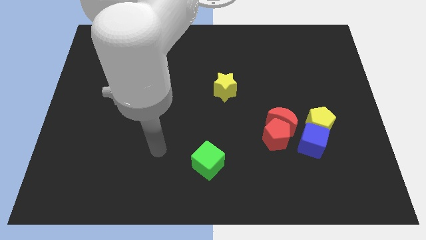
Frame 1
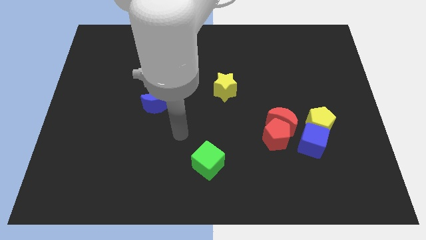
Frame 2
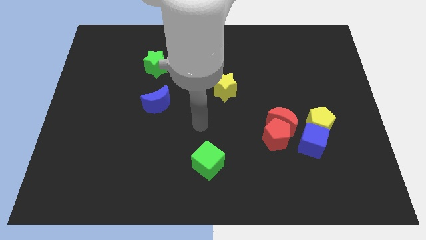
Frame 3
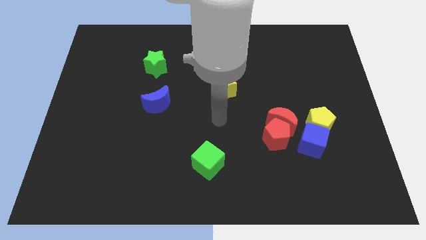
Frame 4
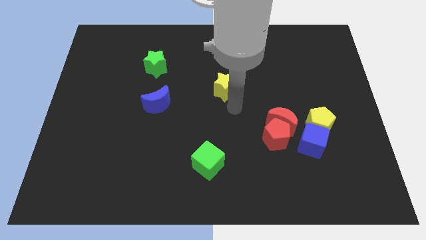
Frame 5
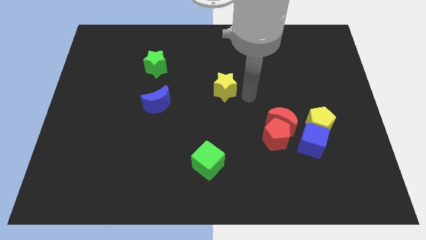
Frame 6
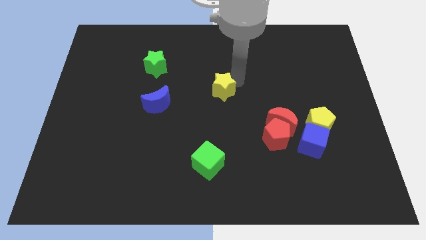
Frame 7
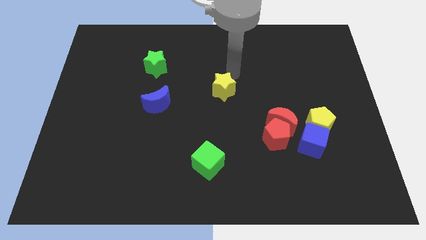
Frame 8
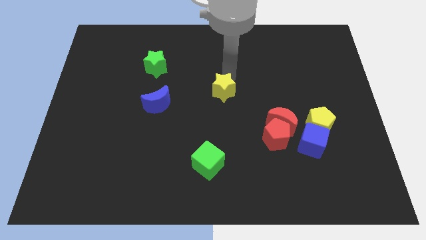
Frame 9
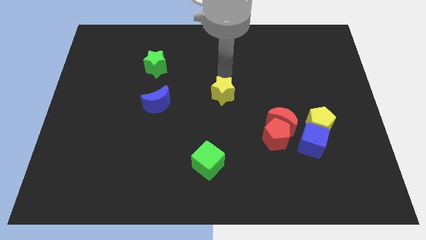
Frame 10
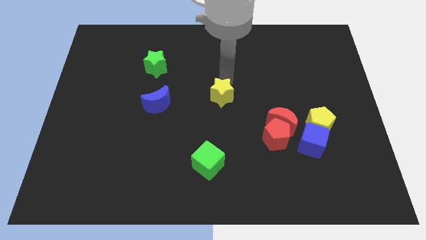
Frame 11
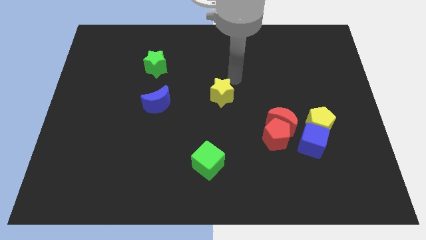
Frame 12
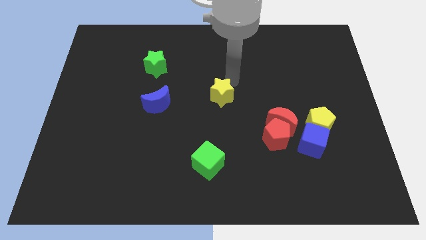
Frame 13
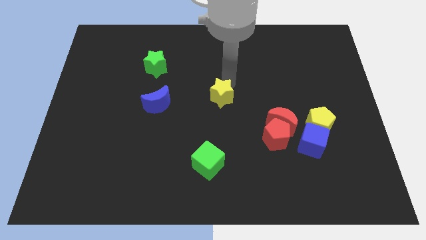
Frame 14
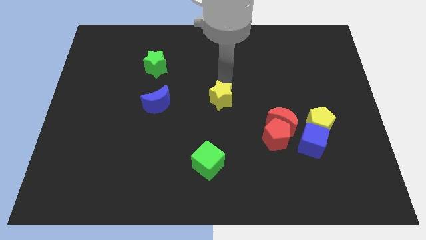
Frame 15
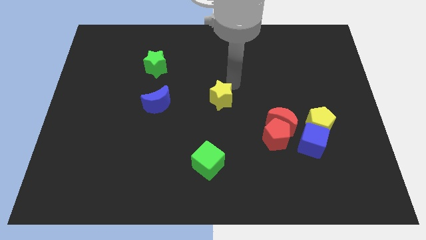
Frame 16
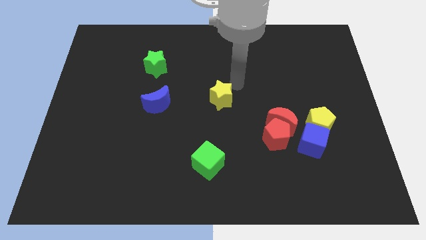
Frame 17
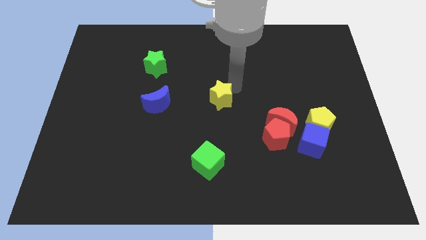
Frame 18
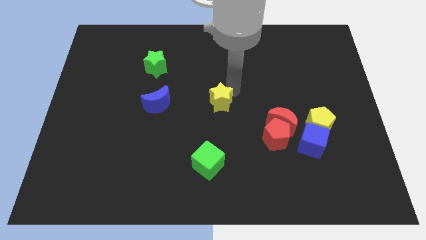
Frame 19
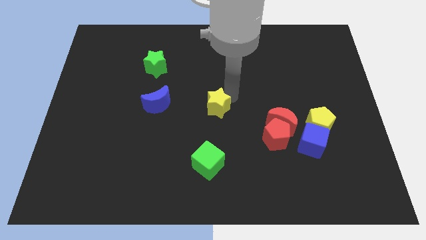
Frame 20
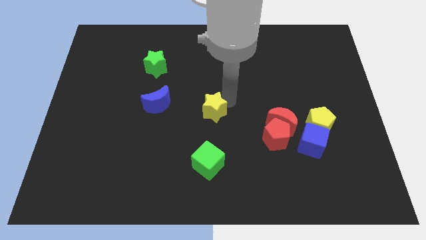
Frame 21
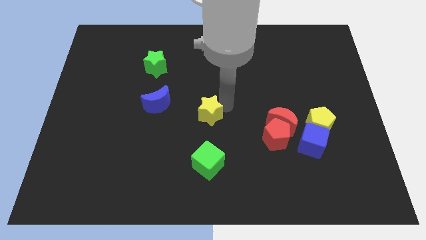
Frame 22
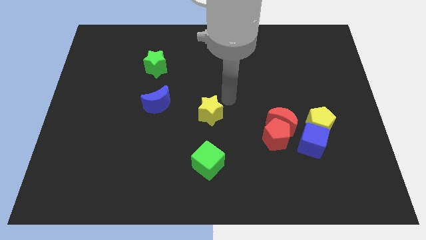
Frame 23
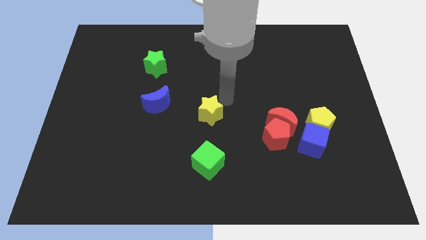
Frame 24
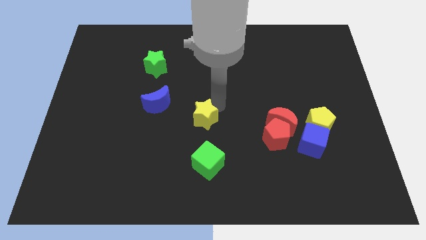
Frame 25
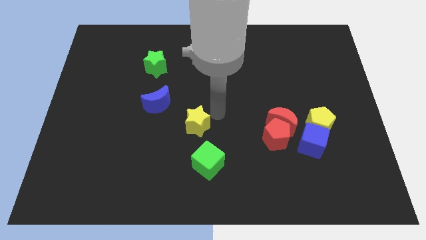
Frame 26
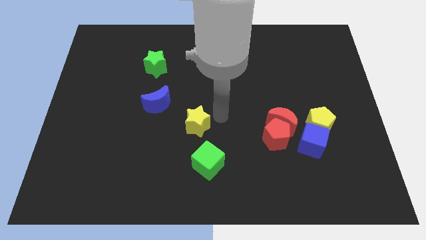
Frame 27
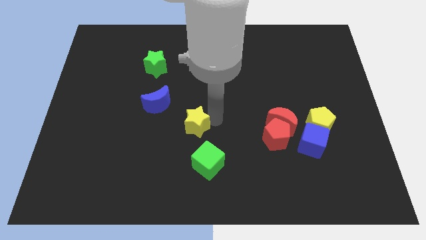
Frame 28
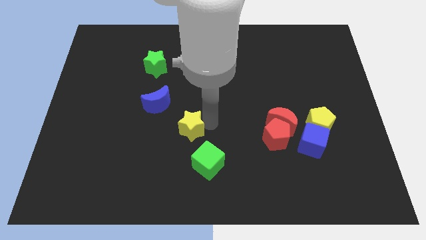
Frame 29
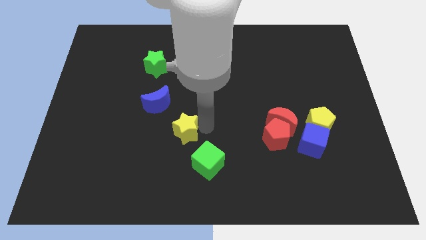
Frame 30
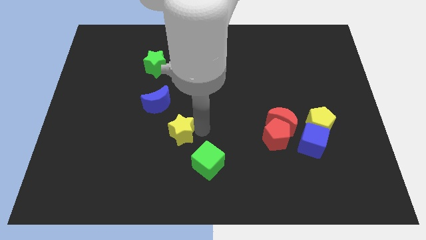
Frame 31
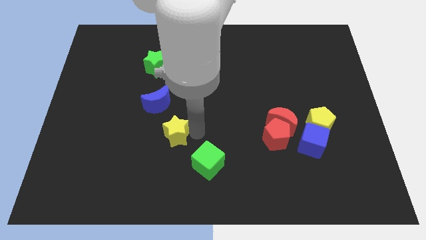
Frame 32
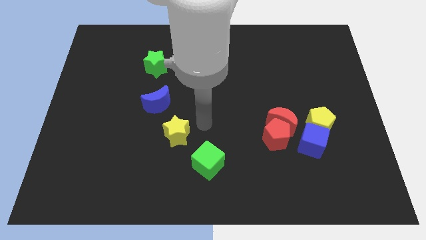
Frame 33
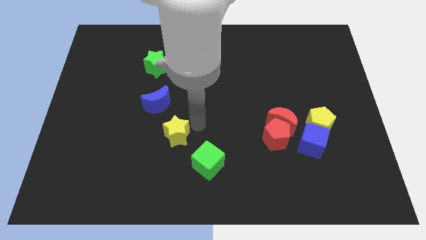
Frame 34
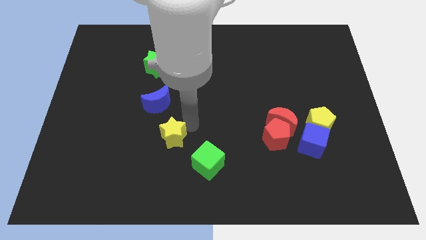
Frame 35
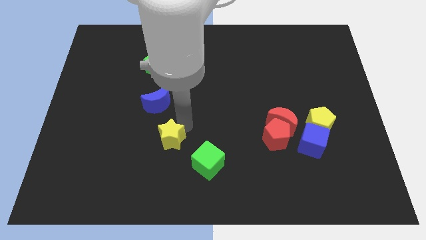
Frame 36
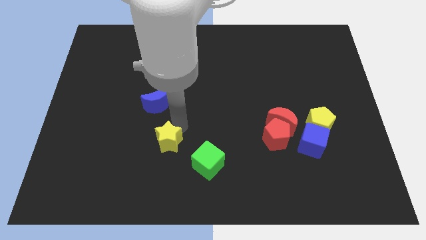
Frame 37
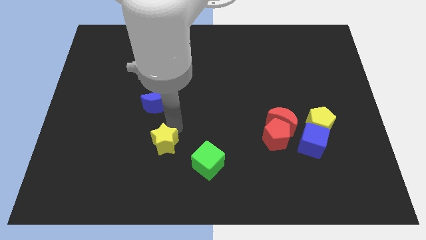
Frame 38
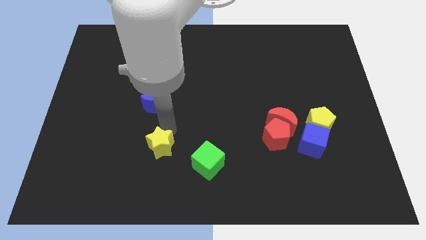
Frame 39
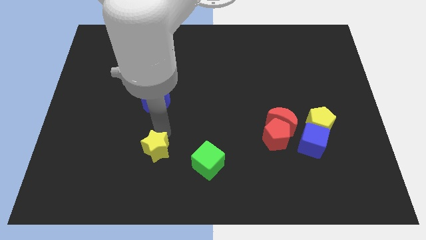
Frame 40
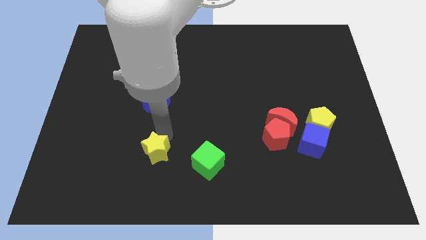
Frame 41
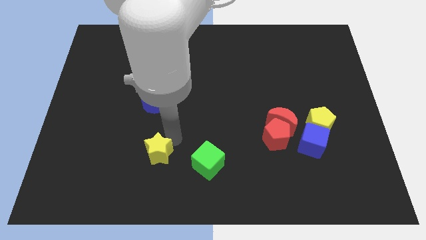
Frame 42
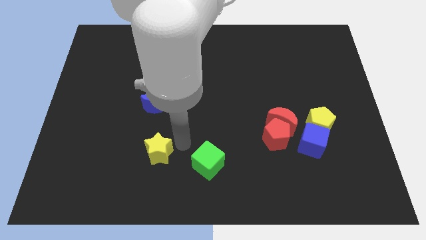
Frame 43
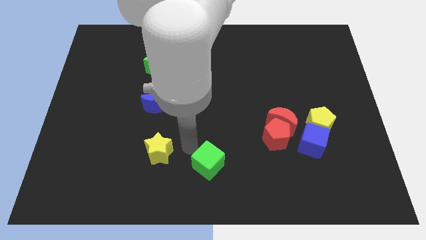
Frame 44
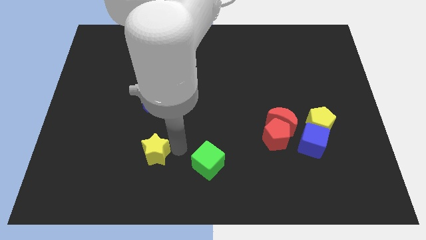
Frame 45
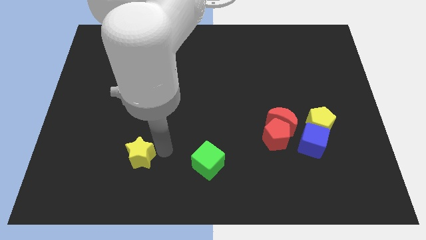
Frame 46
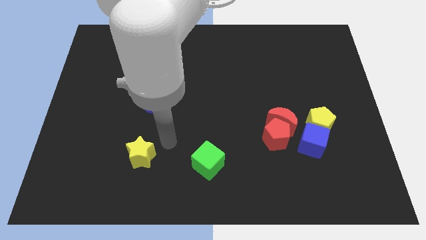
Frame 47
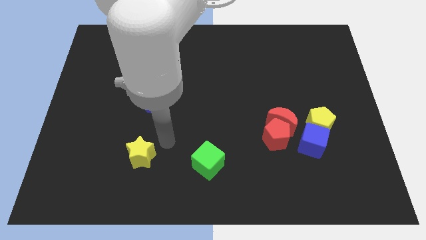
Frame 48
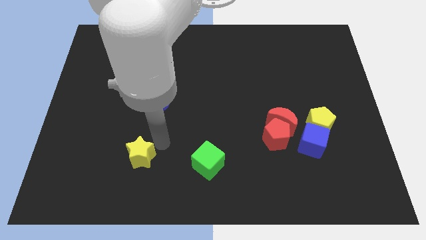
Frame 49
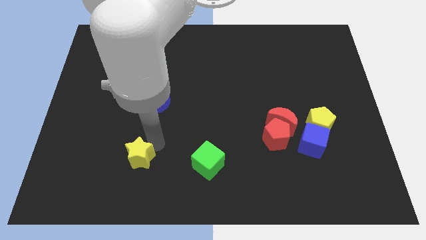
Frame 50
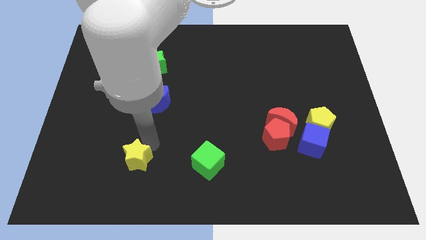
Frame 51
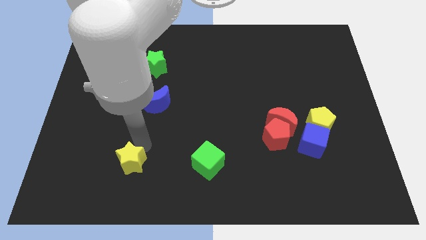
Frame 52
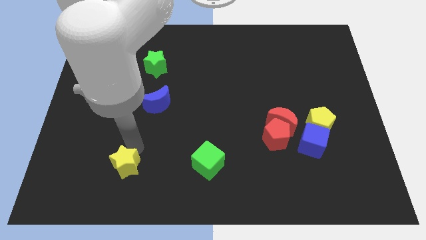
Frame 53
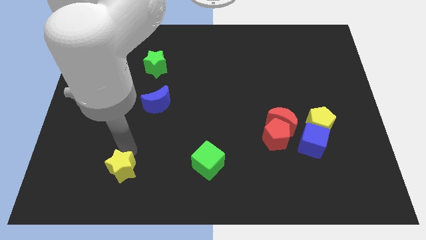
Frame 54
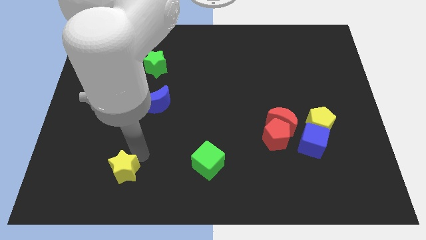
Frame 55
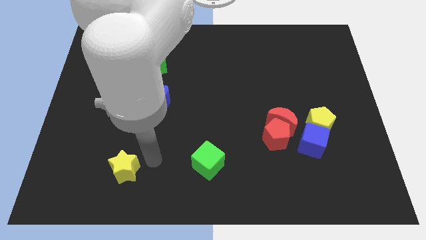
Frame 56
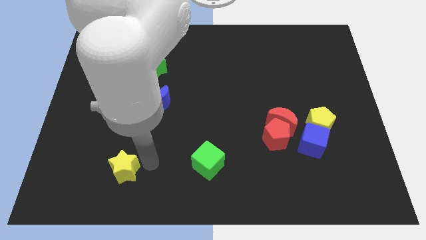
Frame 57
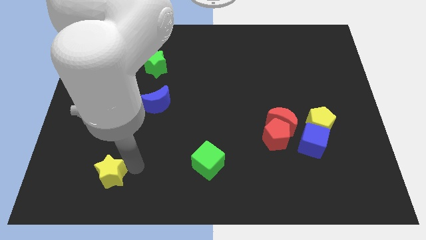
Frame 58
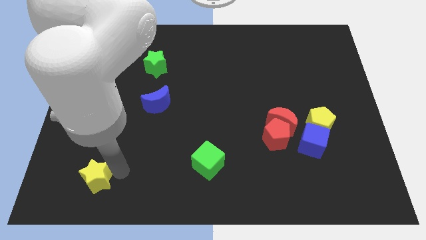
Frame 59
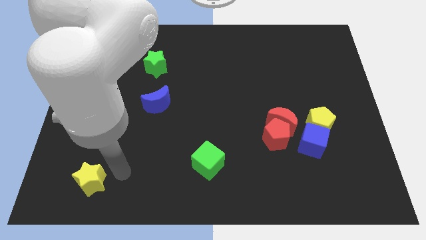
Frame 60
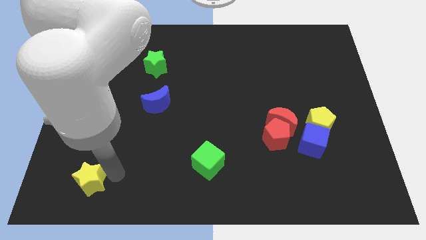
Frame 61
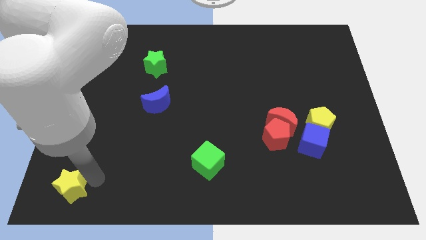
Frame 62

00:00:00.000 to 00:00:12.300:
move the yellow star to the lower left corner

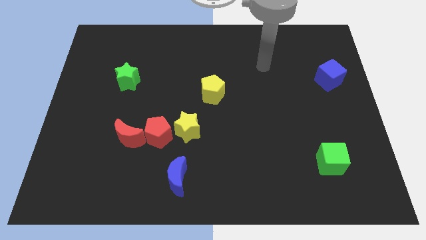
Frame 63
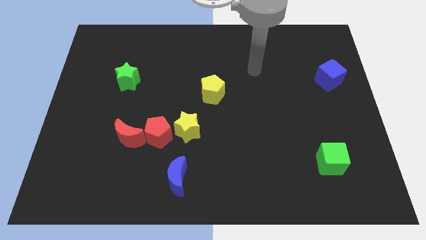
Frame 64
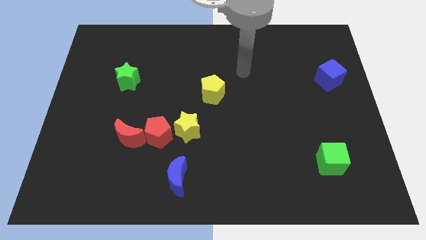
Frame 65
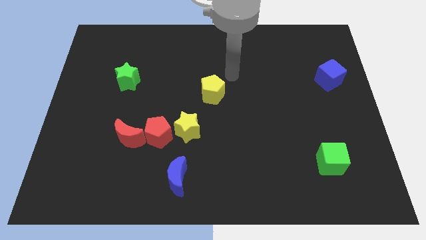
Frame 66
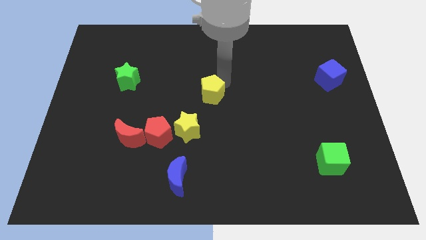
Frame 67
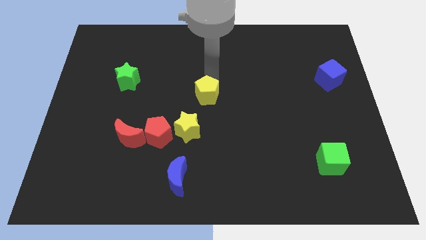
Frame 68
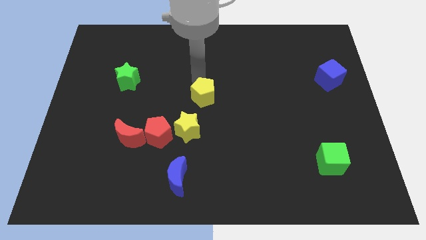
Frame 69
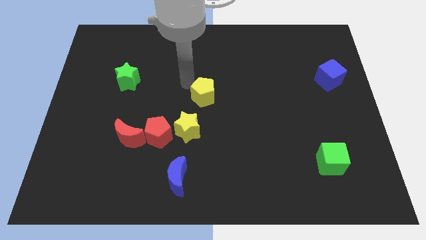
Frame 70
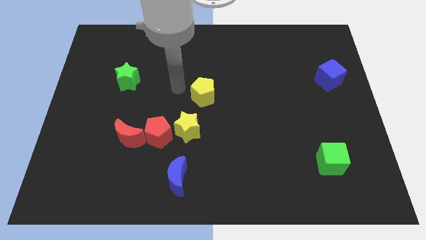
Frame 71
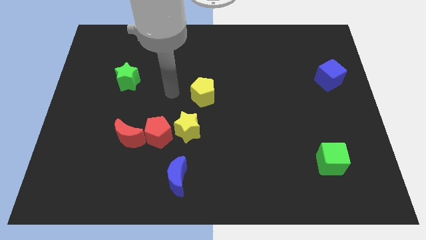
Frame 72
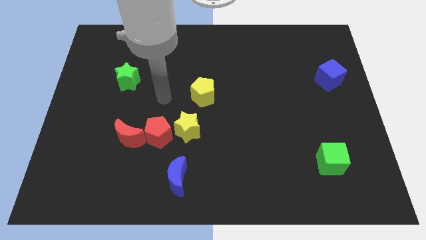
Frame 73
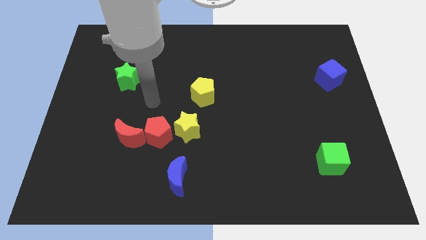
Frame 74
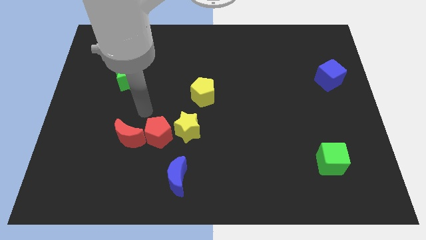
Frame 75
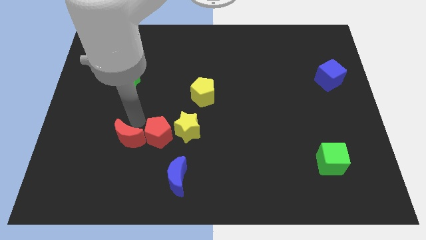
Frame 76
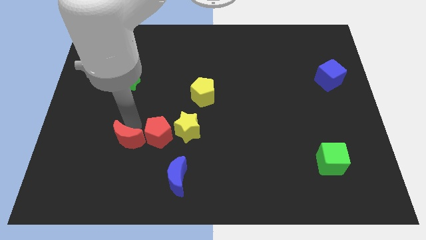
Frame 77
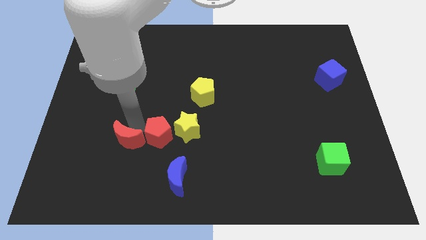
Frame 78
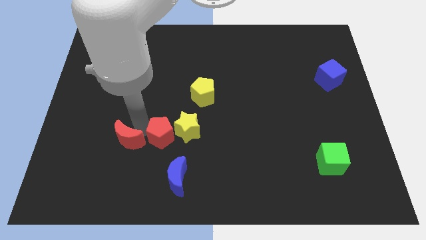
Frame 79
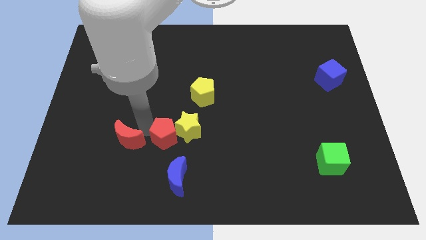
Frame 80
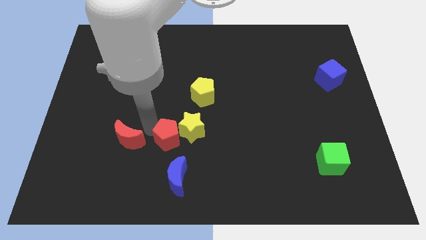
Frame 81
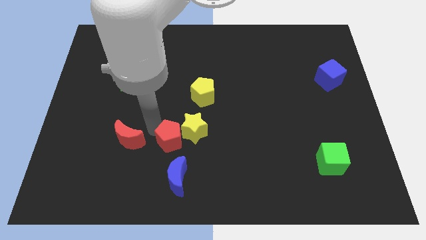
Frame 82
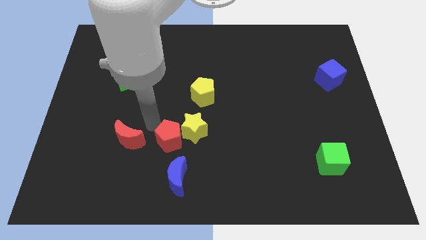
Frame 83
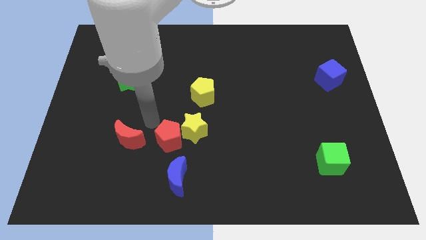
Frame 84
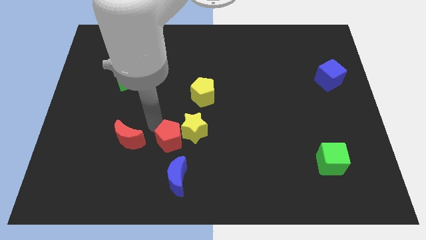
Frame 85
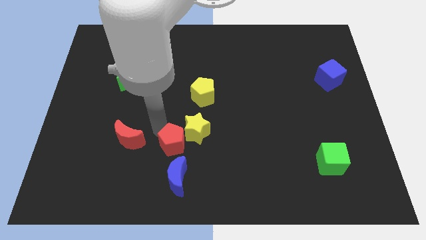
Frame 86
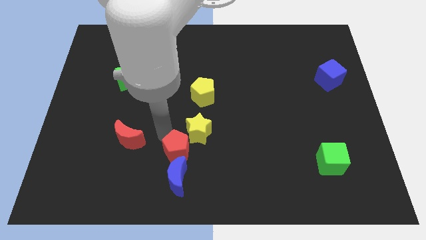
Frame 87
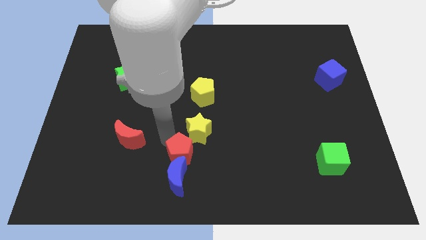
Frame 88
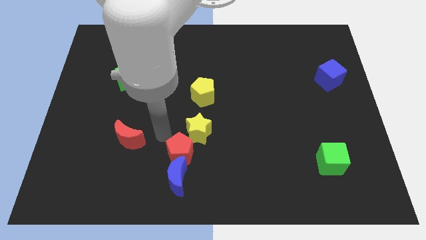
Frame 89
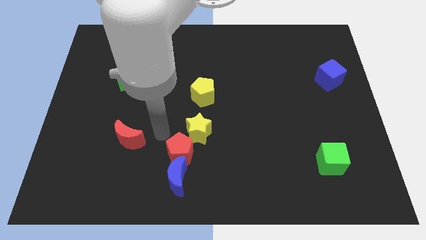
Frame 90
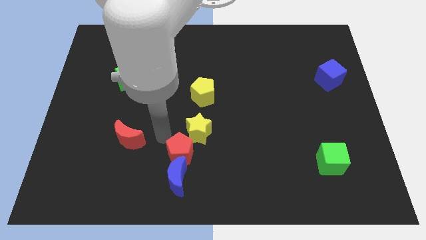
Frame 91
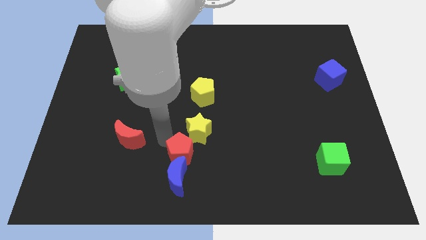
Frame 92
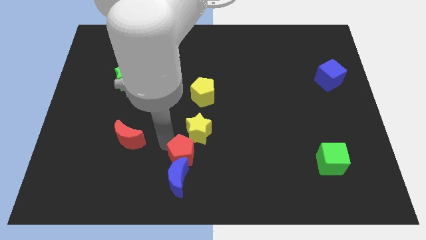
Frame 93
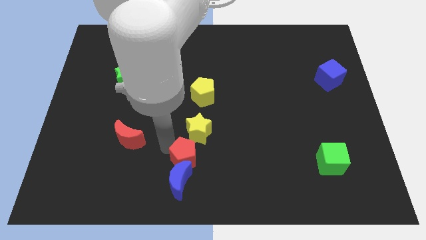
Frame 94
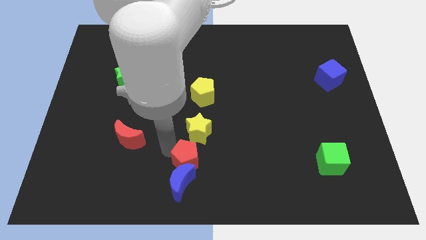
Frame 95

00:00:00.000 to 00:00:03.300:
push the red pentagon to the bottom
